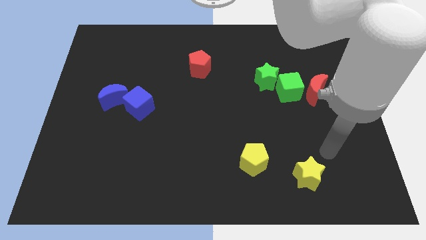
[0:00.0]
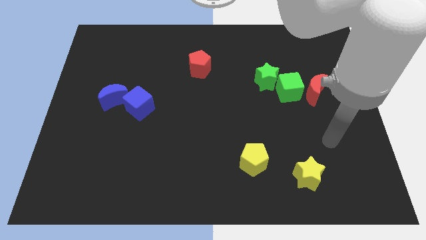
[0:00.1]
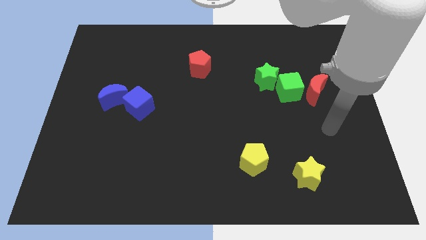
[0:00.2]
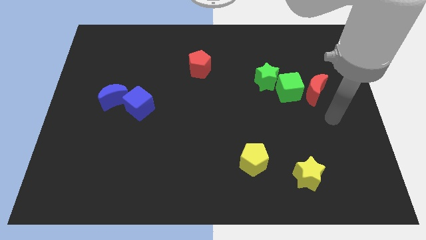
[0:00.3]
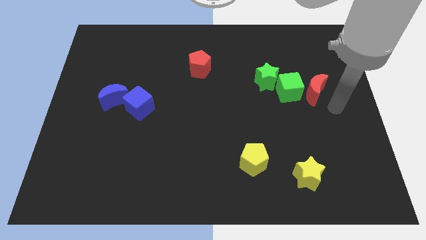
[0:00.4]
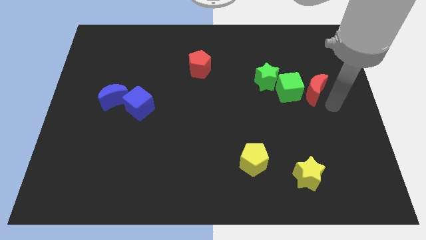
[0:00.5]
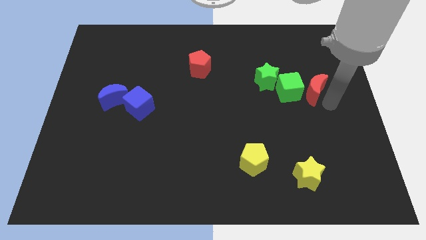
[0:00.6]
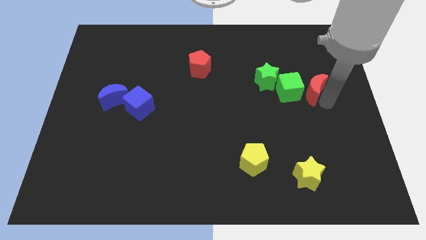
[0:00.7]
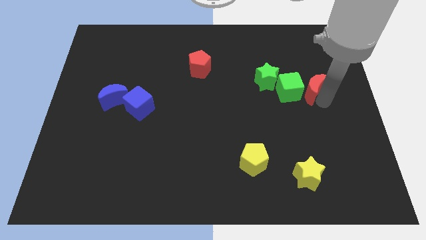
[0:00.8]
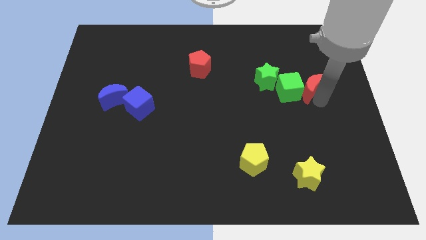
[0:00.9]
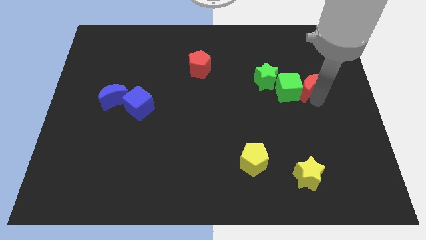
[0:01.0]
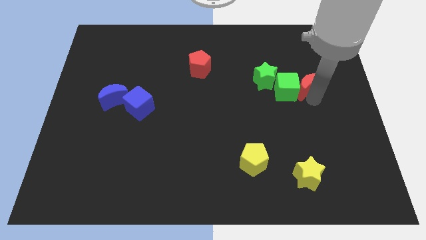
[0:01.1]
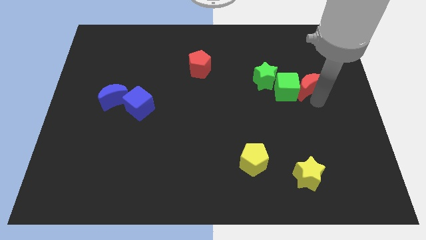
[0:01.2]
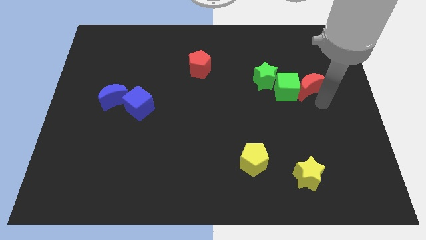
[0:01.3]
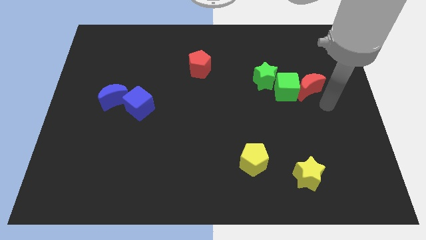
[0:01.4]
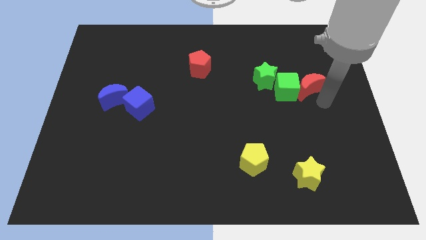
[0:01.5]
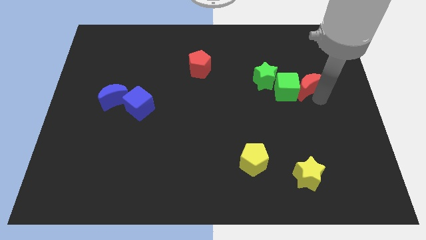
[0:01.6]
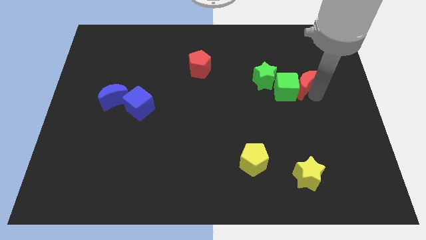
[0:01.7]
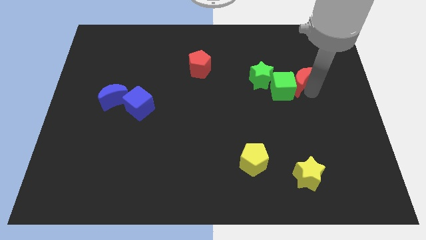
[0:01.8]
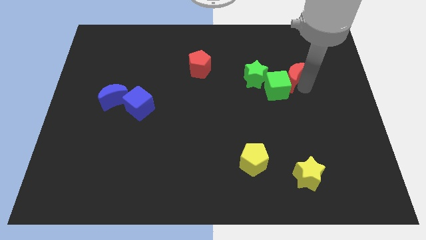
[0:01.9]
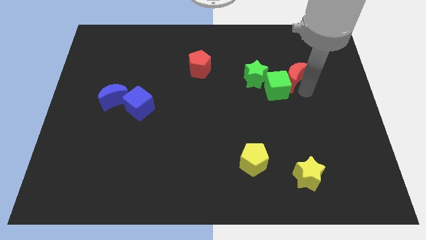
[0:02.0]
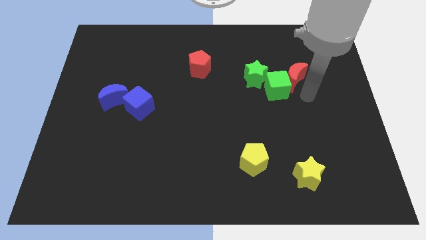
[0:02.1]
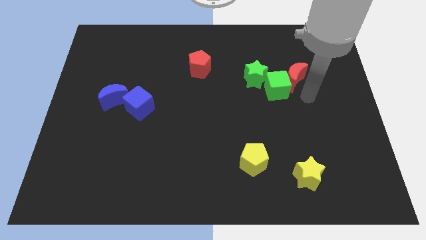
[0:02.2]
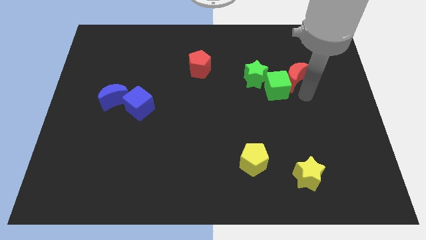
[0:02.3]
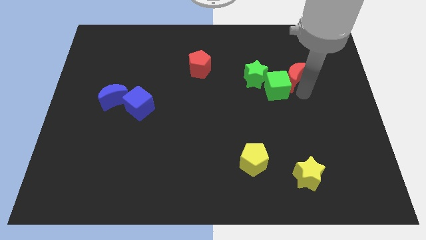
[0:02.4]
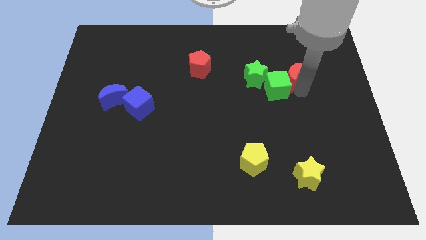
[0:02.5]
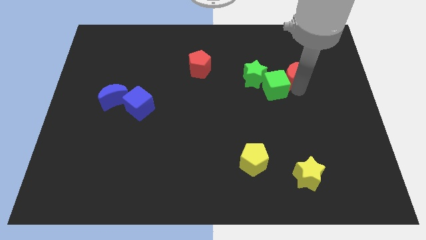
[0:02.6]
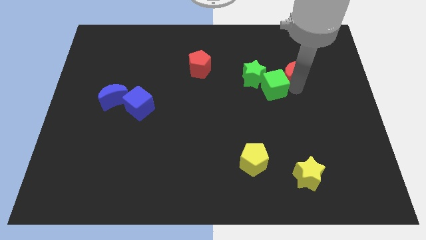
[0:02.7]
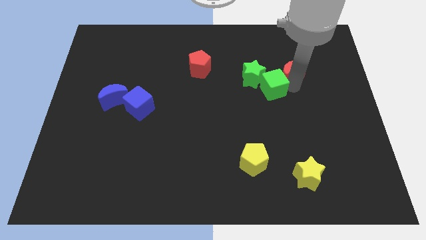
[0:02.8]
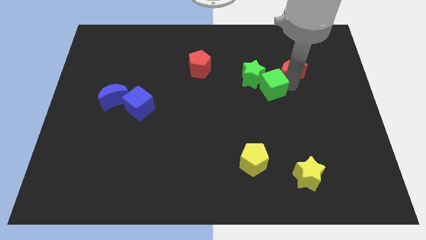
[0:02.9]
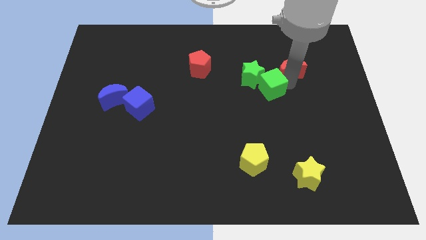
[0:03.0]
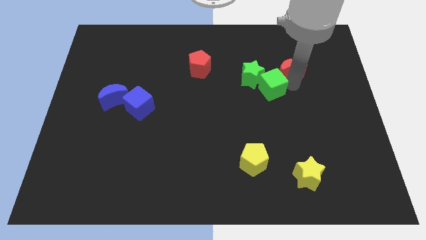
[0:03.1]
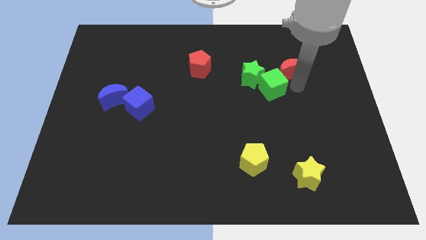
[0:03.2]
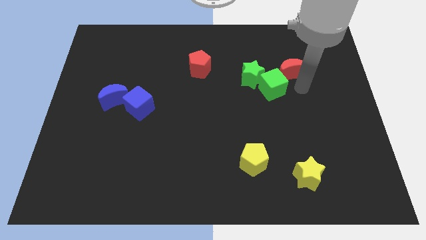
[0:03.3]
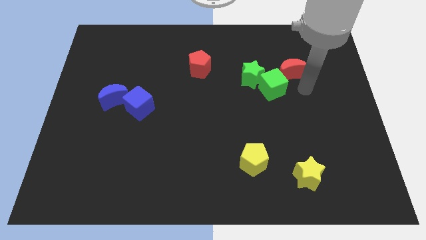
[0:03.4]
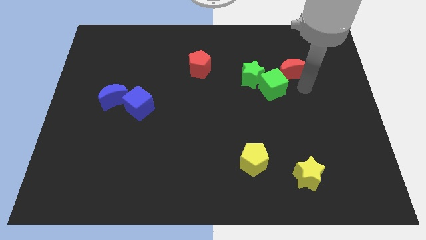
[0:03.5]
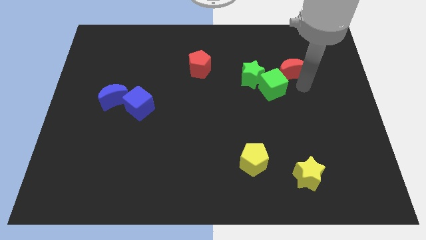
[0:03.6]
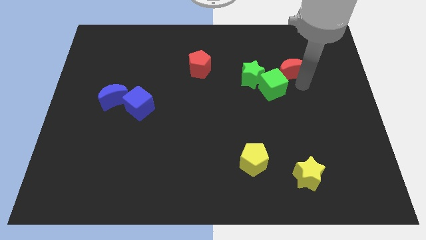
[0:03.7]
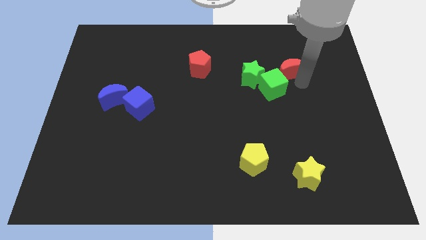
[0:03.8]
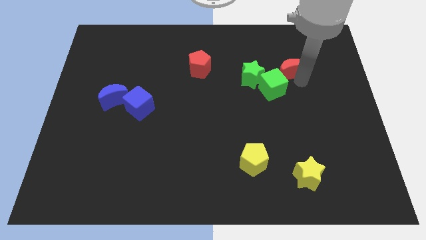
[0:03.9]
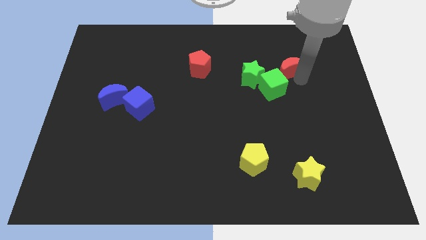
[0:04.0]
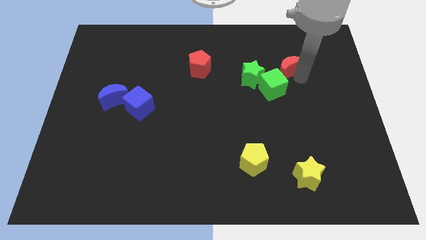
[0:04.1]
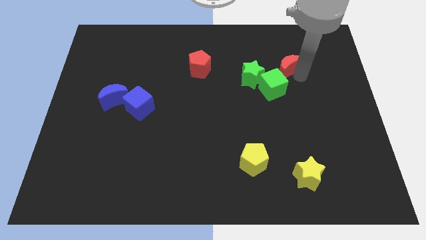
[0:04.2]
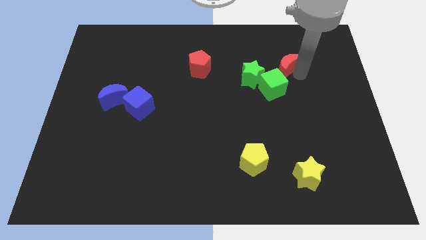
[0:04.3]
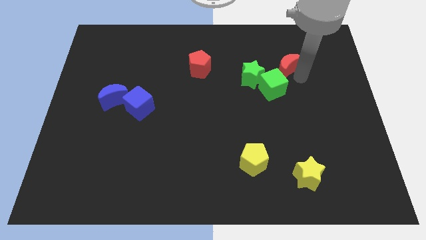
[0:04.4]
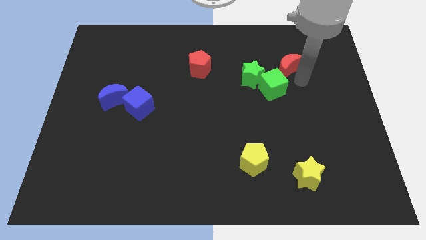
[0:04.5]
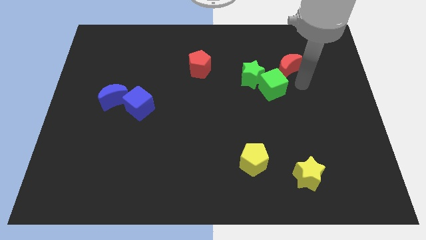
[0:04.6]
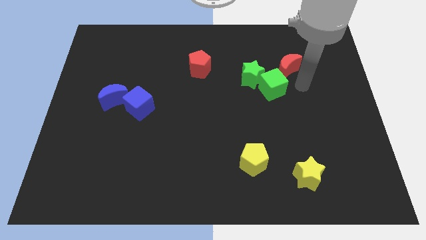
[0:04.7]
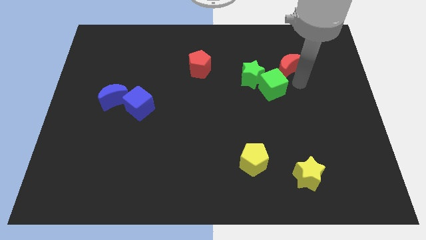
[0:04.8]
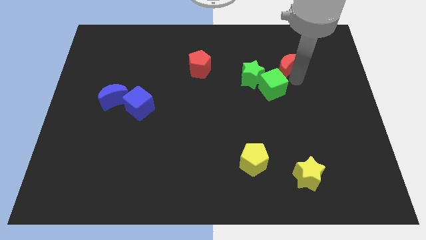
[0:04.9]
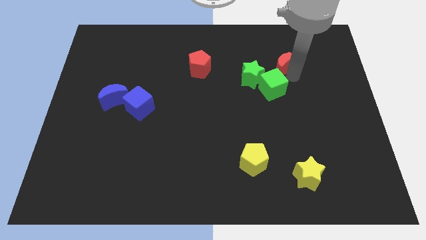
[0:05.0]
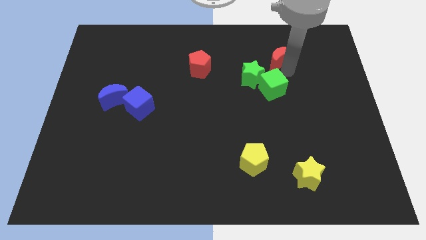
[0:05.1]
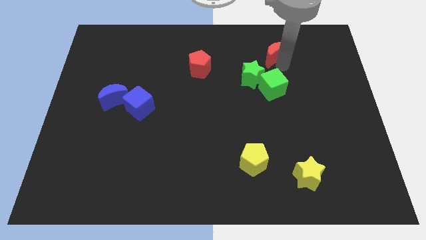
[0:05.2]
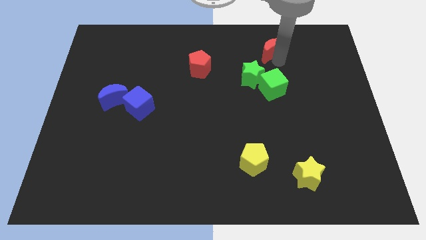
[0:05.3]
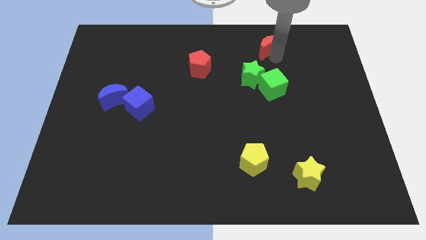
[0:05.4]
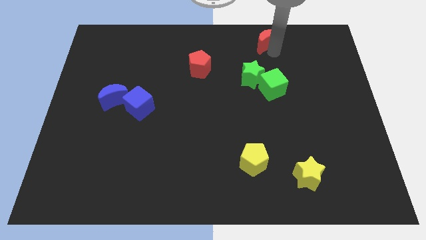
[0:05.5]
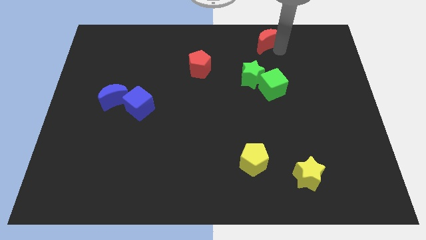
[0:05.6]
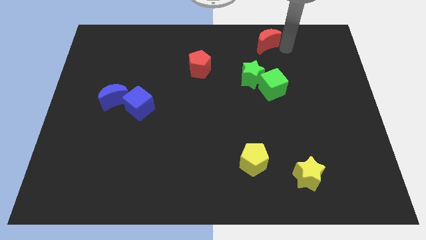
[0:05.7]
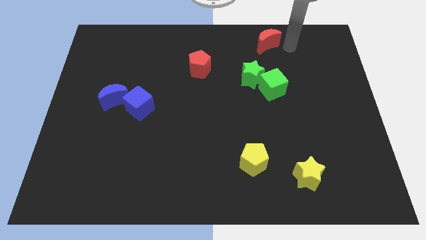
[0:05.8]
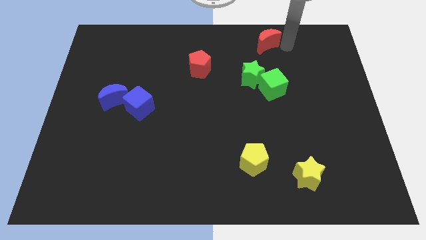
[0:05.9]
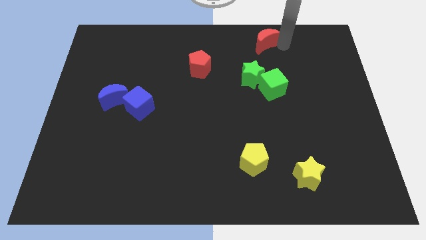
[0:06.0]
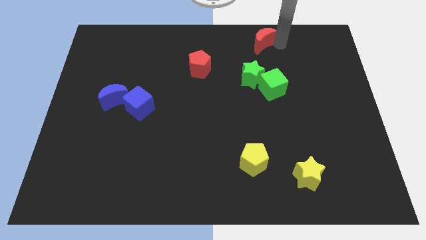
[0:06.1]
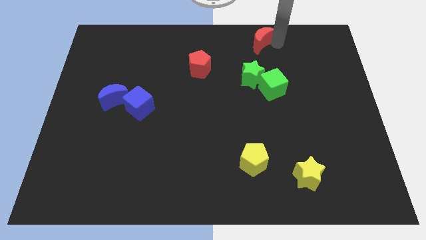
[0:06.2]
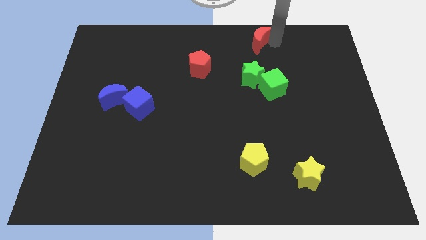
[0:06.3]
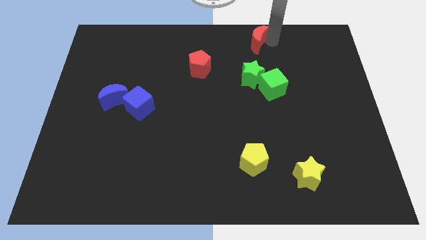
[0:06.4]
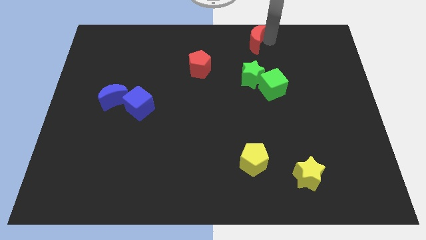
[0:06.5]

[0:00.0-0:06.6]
move the red moon to the top side
